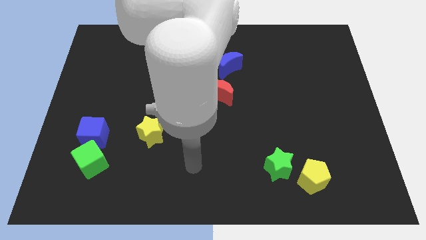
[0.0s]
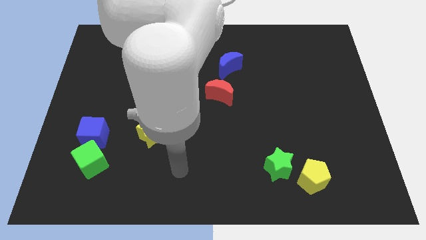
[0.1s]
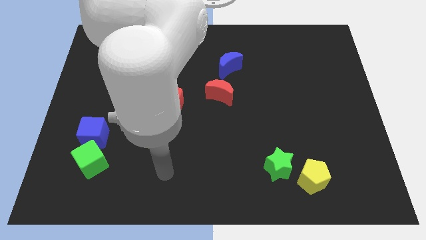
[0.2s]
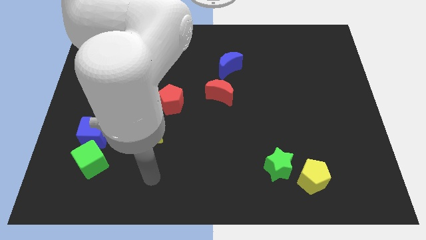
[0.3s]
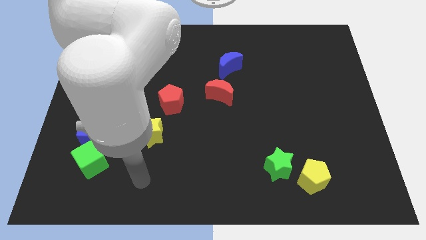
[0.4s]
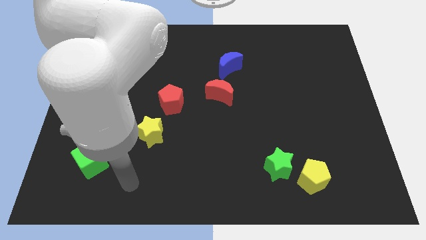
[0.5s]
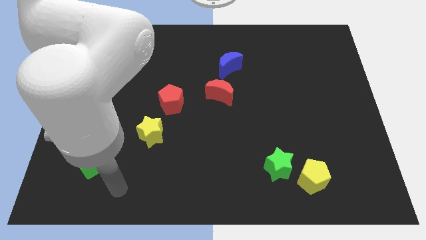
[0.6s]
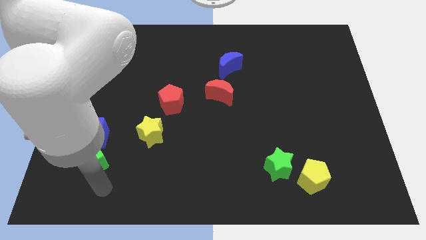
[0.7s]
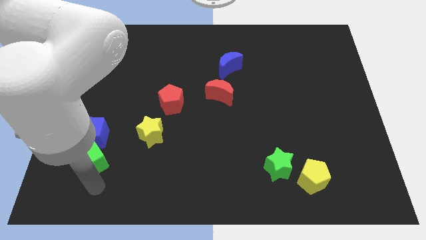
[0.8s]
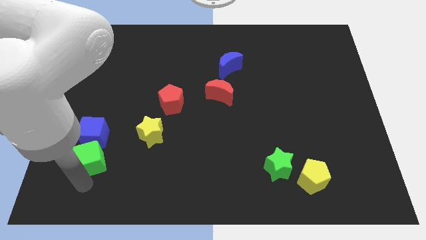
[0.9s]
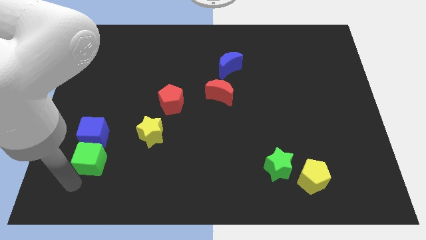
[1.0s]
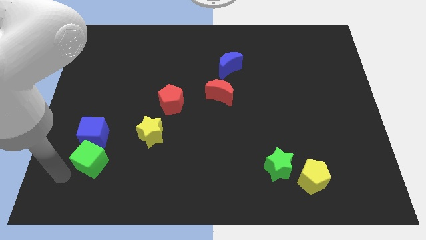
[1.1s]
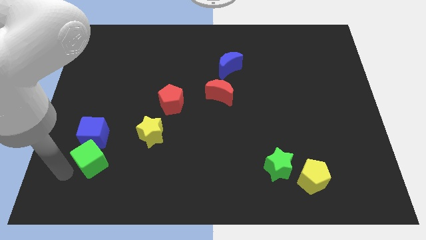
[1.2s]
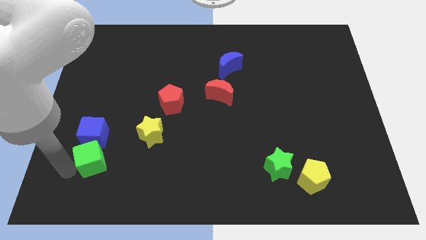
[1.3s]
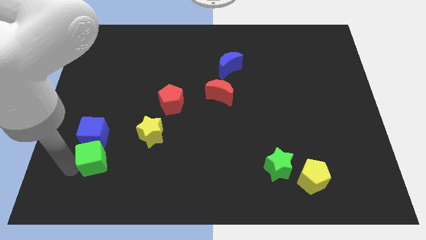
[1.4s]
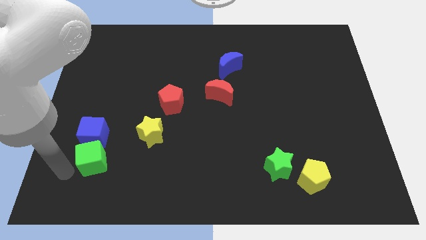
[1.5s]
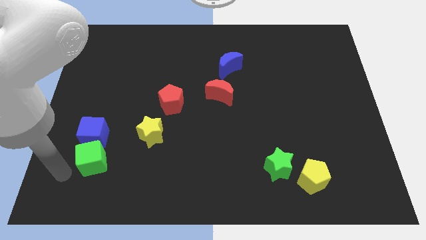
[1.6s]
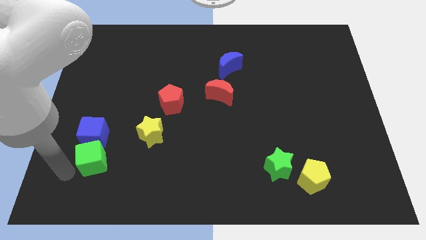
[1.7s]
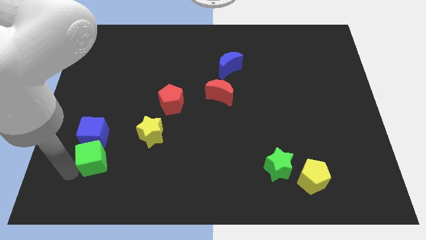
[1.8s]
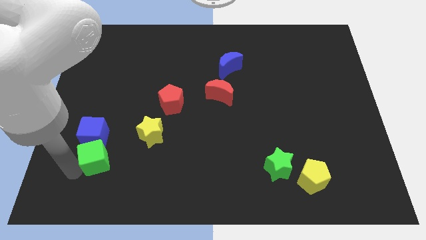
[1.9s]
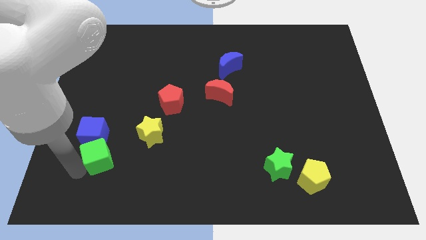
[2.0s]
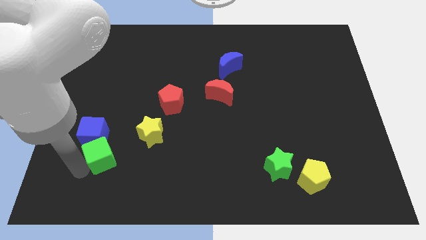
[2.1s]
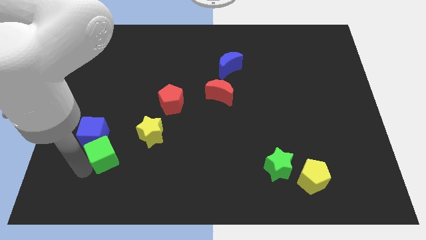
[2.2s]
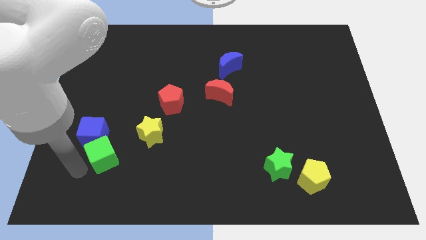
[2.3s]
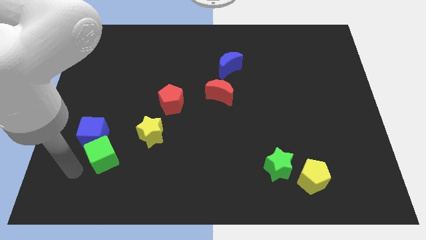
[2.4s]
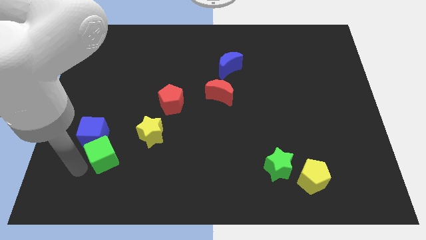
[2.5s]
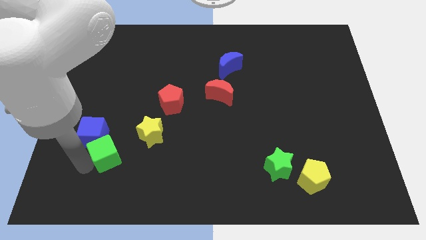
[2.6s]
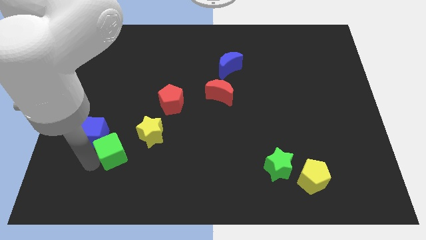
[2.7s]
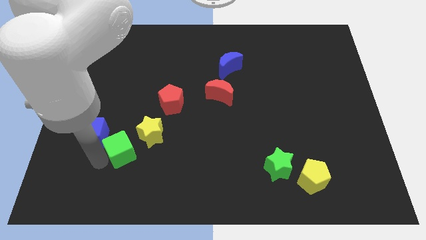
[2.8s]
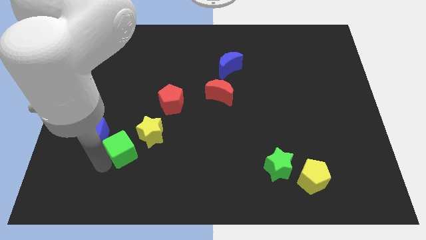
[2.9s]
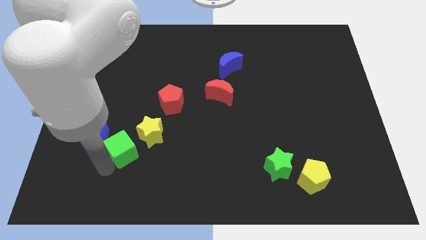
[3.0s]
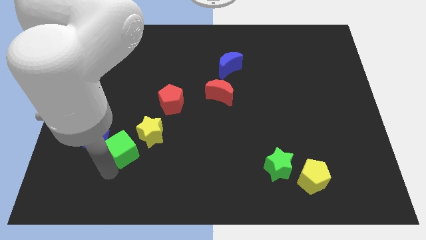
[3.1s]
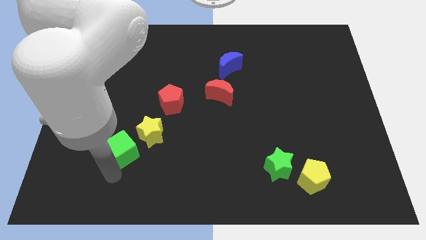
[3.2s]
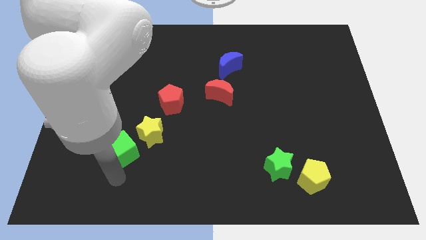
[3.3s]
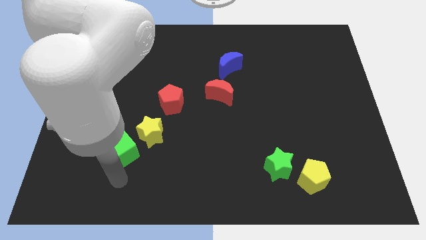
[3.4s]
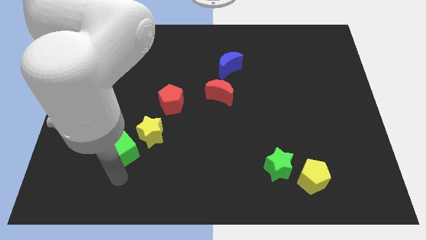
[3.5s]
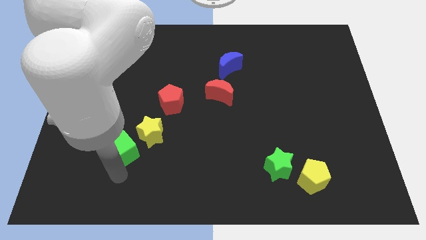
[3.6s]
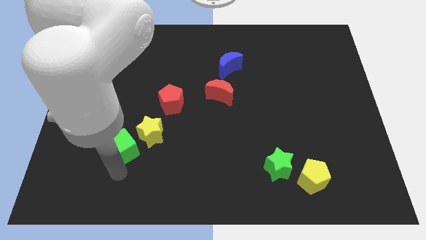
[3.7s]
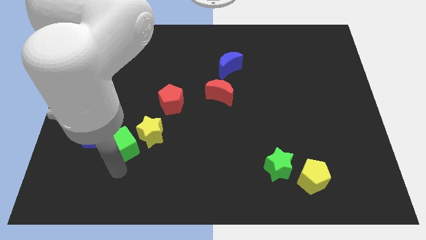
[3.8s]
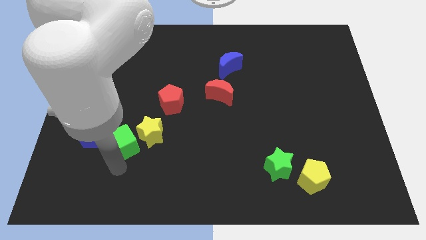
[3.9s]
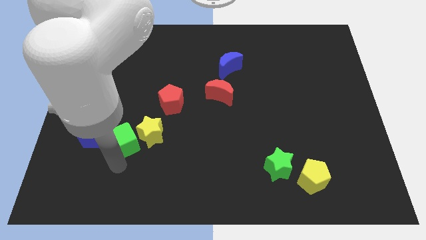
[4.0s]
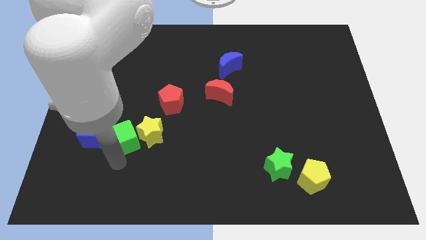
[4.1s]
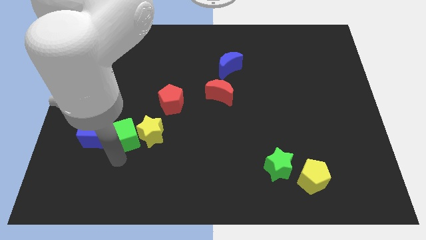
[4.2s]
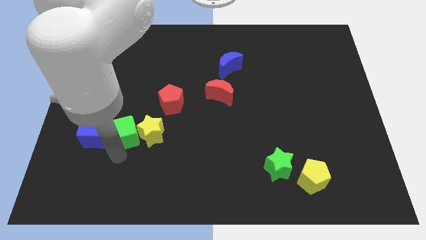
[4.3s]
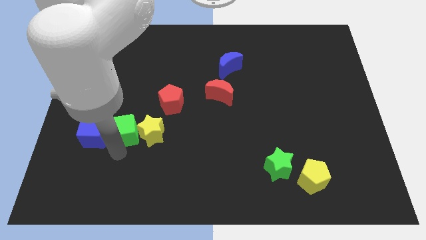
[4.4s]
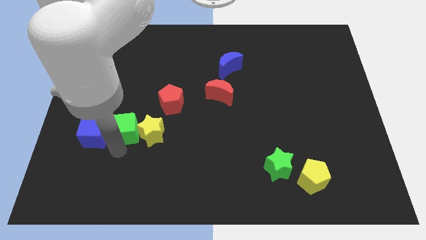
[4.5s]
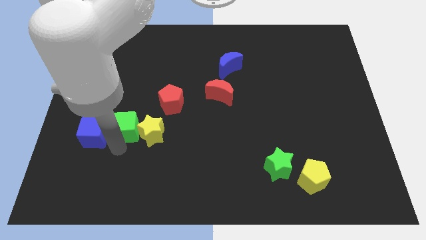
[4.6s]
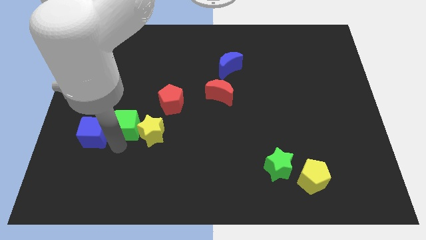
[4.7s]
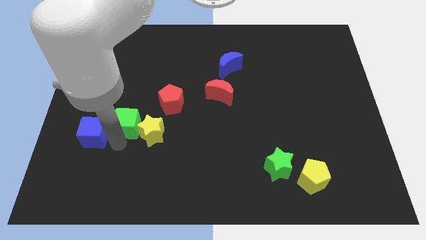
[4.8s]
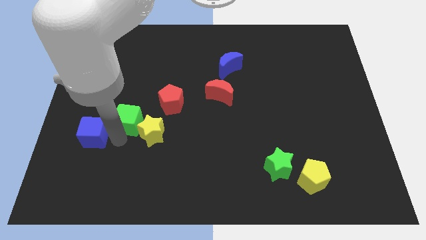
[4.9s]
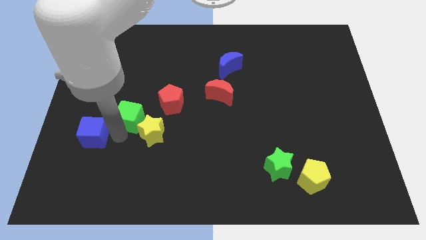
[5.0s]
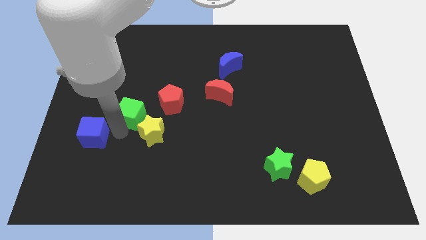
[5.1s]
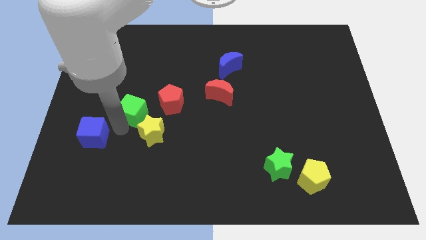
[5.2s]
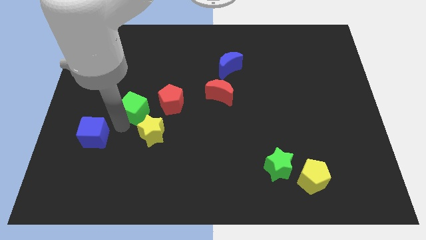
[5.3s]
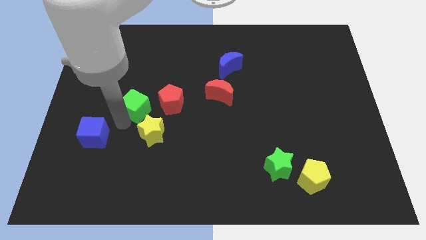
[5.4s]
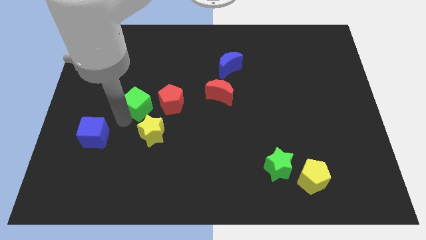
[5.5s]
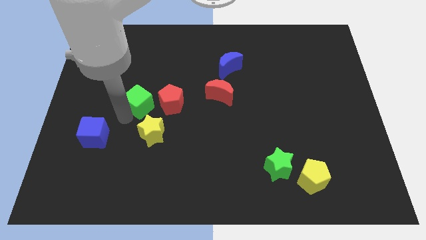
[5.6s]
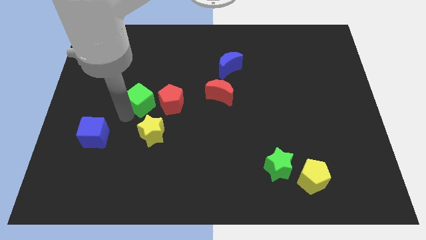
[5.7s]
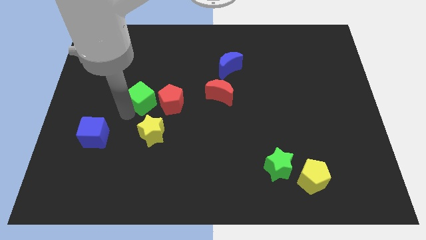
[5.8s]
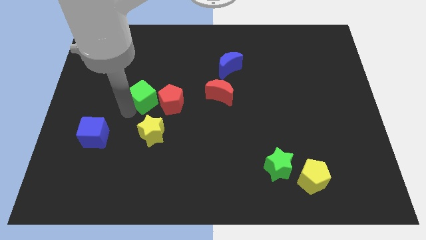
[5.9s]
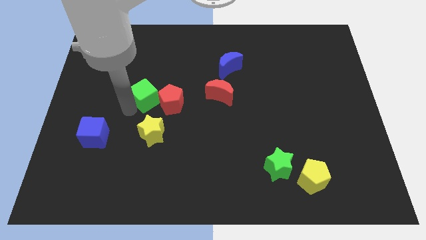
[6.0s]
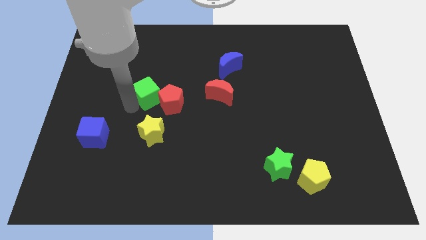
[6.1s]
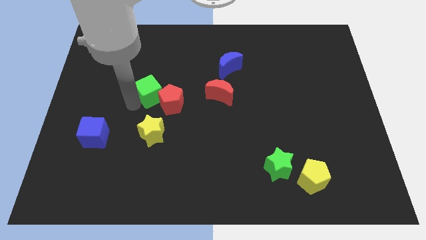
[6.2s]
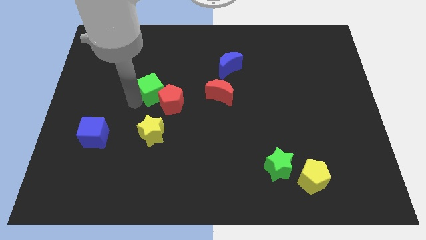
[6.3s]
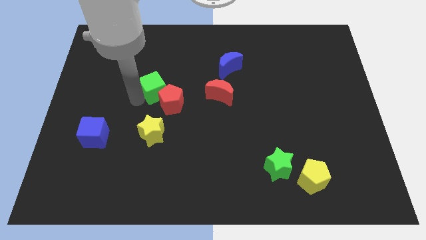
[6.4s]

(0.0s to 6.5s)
slide the green cube left of the red moon
